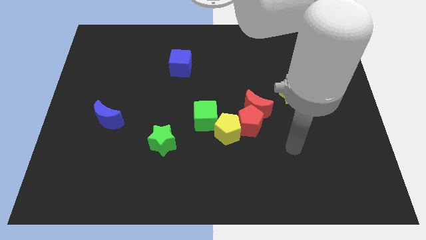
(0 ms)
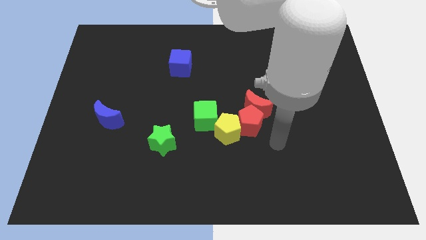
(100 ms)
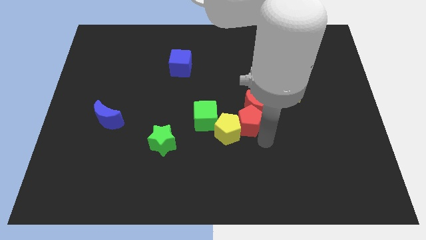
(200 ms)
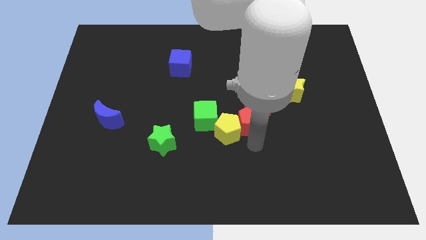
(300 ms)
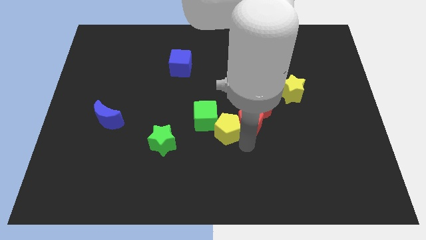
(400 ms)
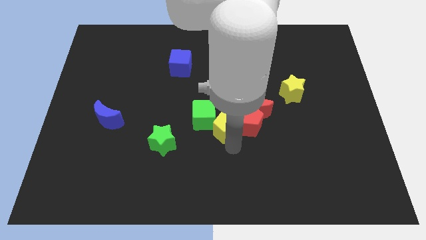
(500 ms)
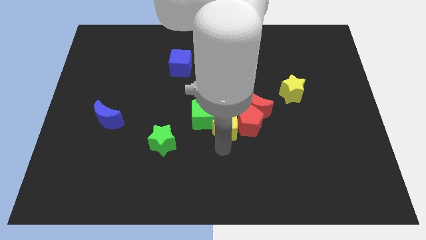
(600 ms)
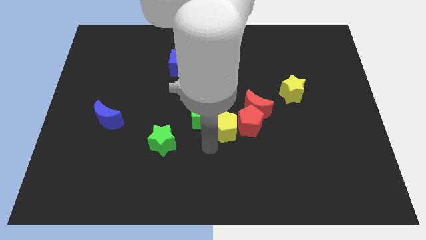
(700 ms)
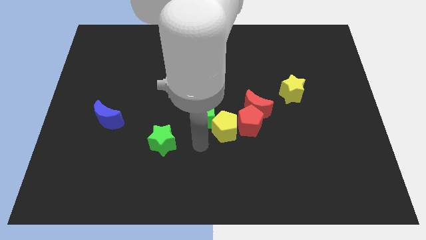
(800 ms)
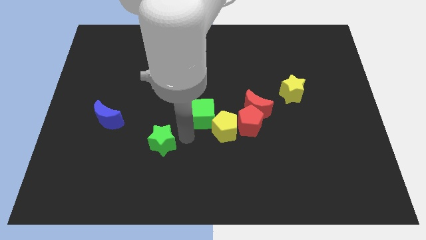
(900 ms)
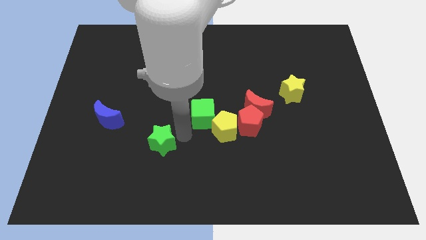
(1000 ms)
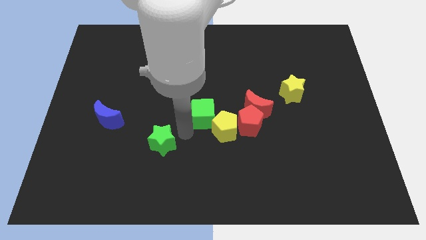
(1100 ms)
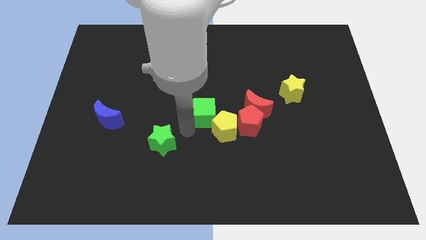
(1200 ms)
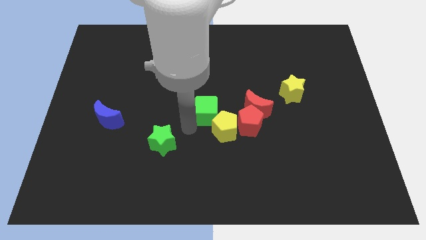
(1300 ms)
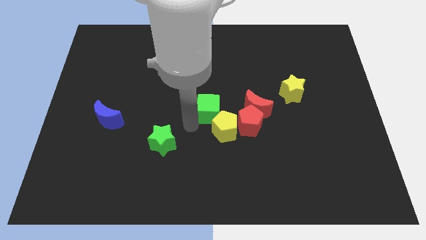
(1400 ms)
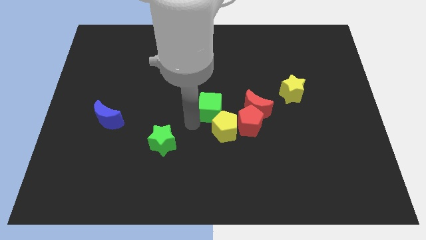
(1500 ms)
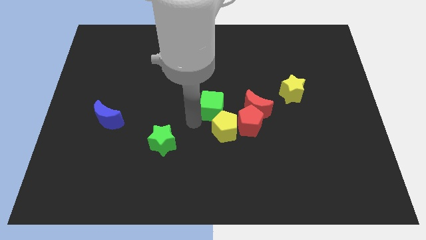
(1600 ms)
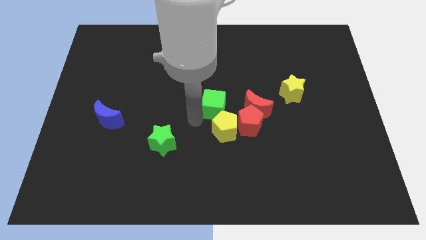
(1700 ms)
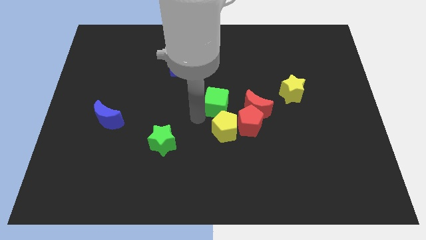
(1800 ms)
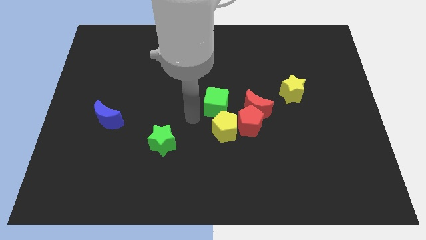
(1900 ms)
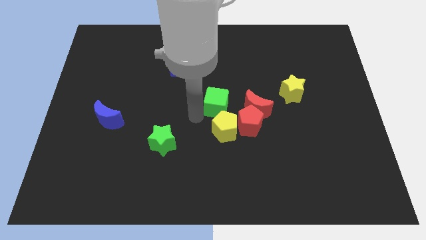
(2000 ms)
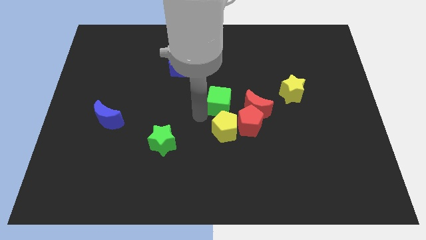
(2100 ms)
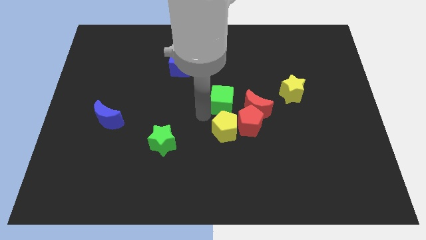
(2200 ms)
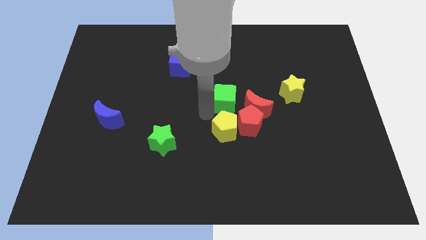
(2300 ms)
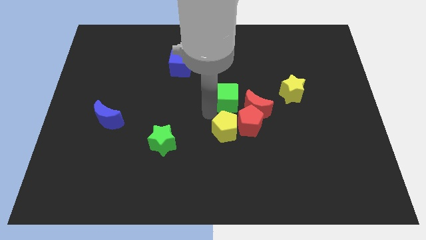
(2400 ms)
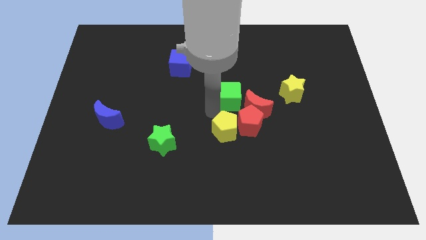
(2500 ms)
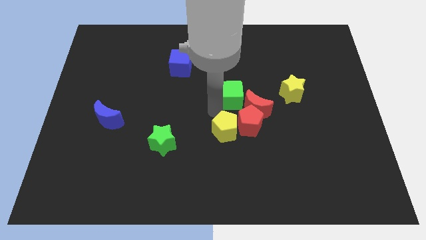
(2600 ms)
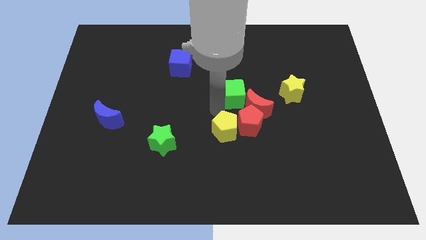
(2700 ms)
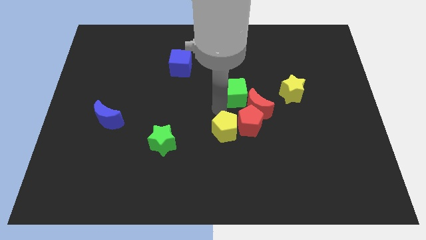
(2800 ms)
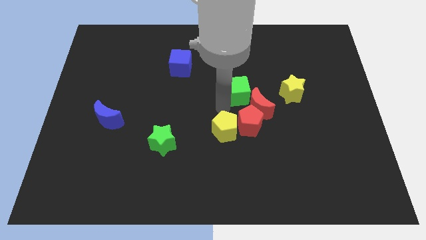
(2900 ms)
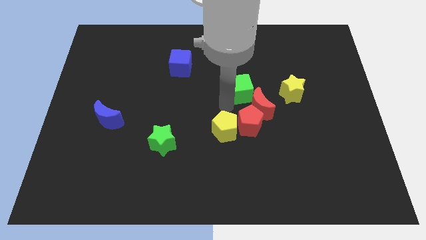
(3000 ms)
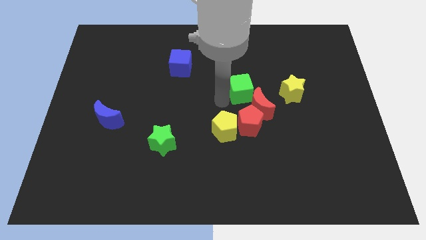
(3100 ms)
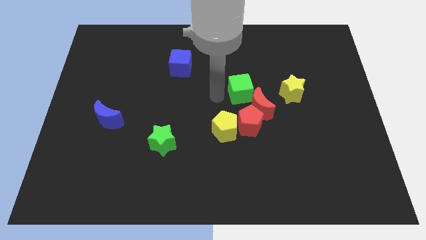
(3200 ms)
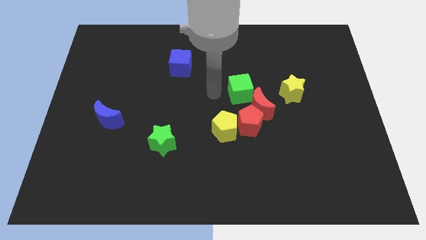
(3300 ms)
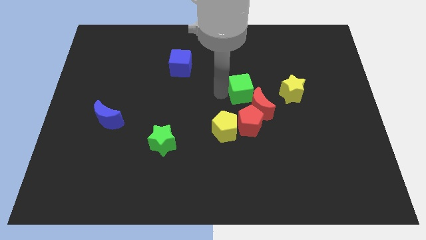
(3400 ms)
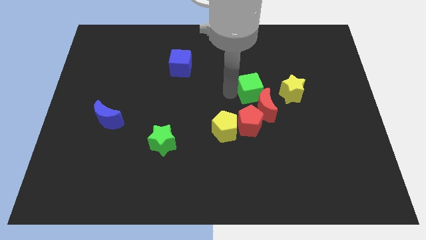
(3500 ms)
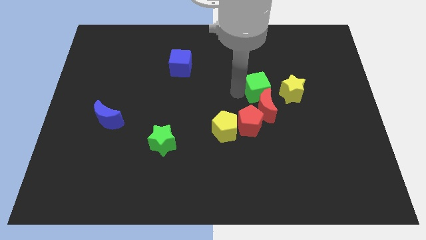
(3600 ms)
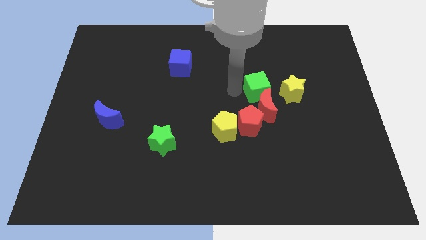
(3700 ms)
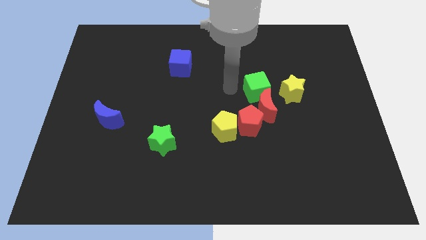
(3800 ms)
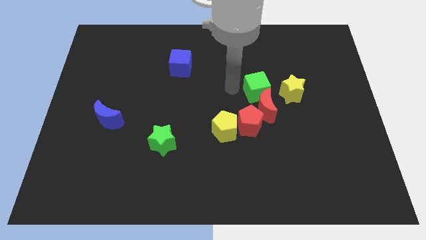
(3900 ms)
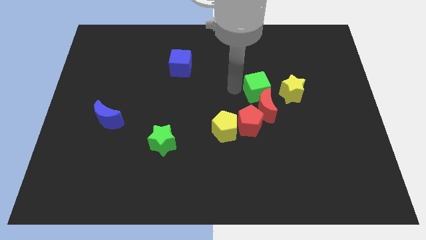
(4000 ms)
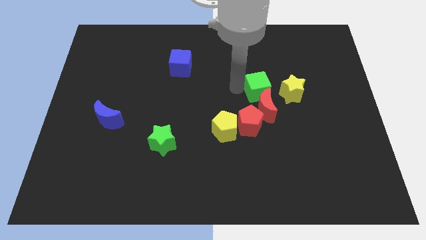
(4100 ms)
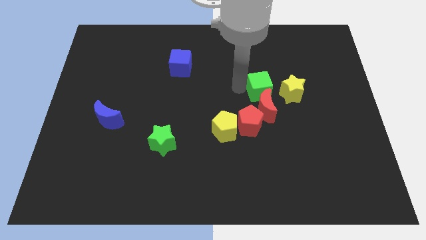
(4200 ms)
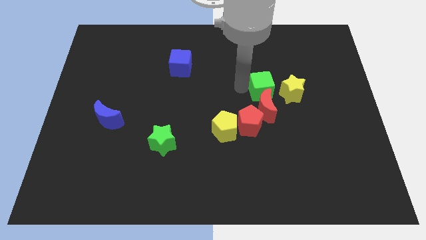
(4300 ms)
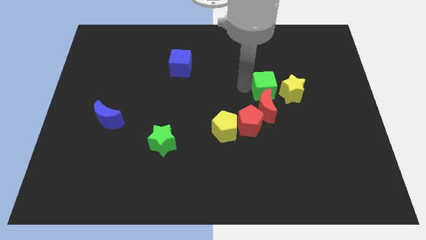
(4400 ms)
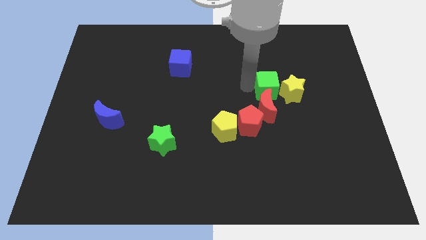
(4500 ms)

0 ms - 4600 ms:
put the green cube next to the yellow star

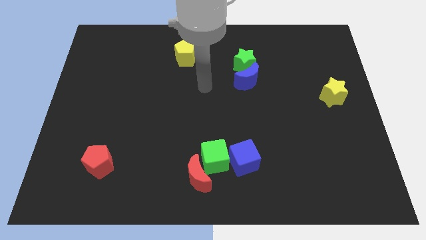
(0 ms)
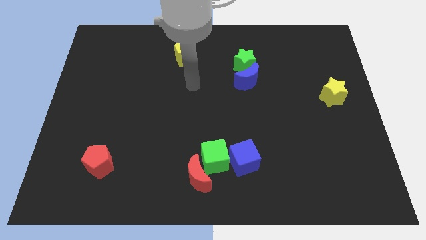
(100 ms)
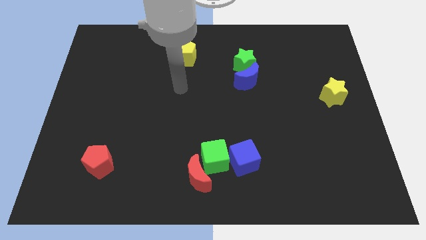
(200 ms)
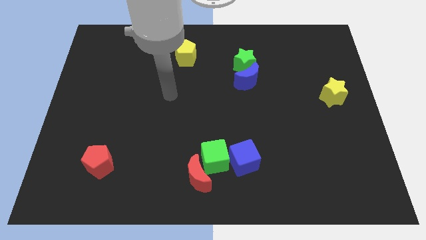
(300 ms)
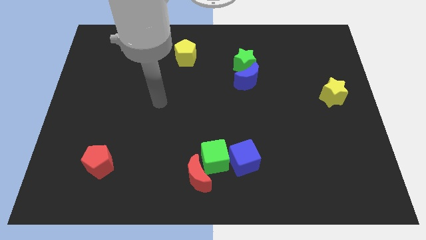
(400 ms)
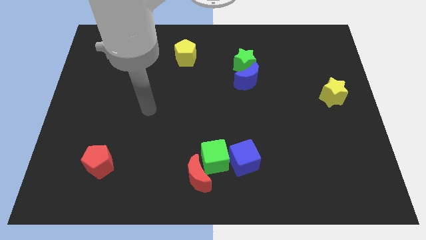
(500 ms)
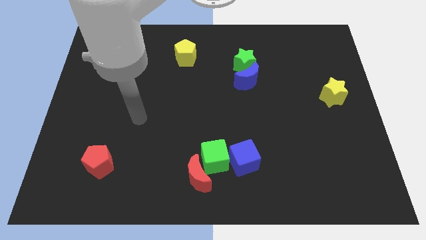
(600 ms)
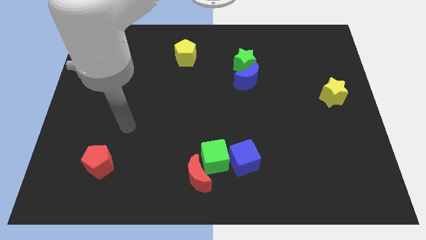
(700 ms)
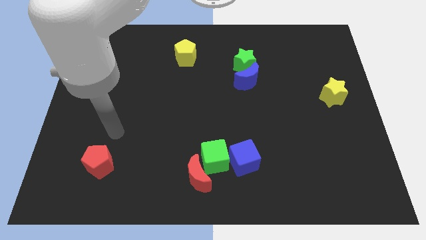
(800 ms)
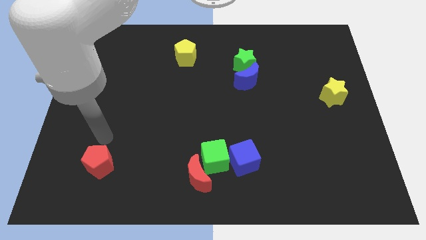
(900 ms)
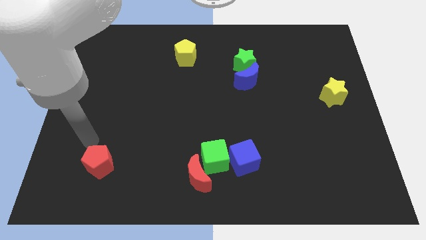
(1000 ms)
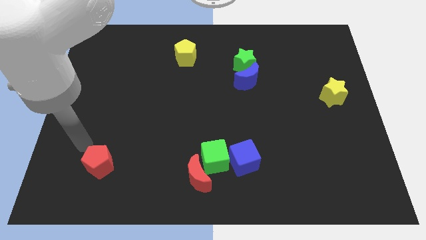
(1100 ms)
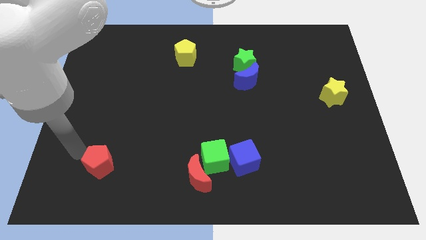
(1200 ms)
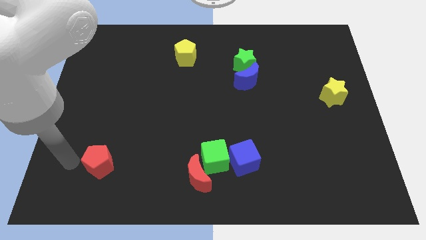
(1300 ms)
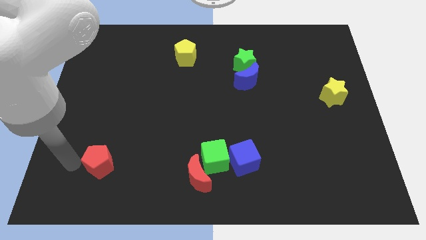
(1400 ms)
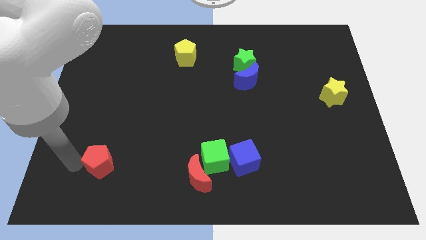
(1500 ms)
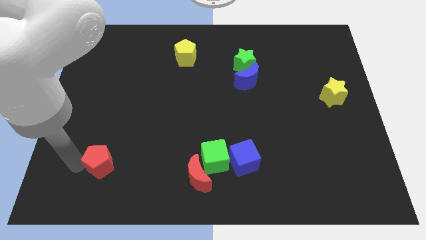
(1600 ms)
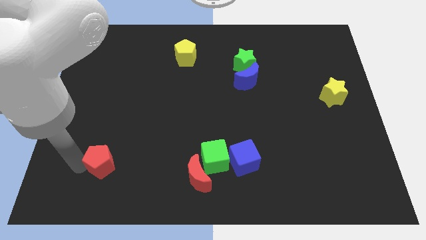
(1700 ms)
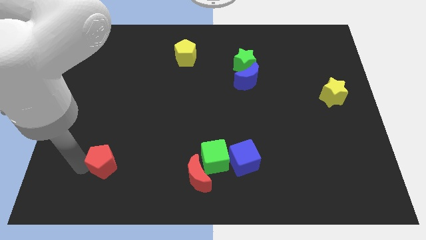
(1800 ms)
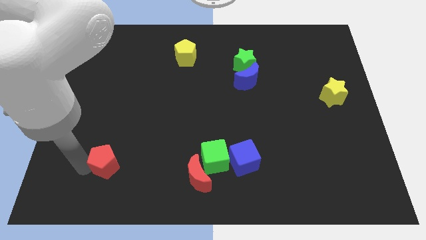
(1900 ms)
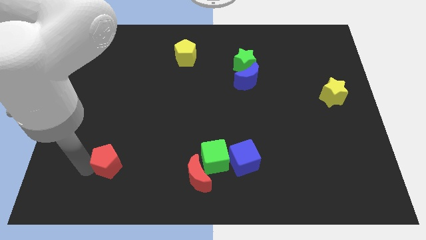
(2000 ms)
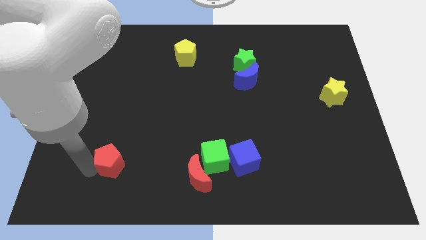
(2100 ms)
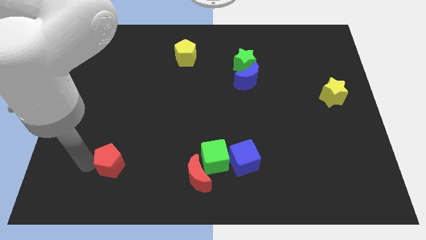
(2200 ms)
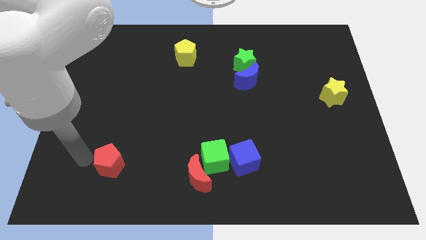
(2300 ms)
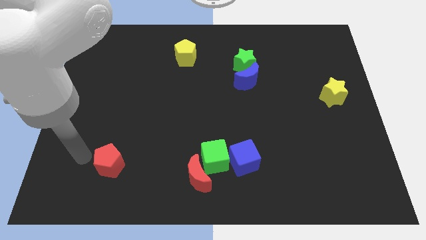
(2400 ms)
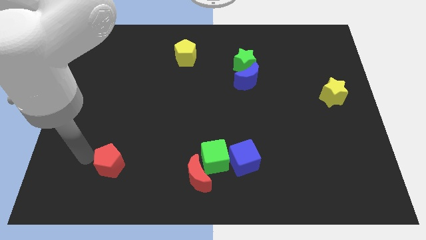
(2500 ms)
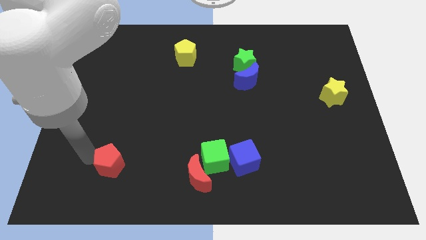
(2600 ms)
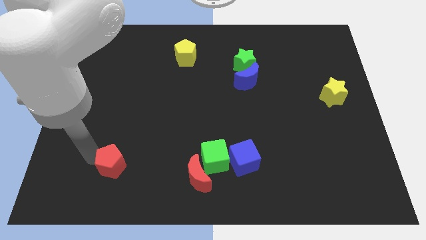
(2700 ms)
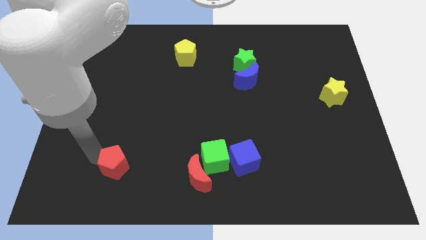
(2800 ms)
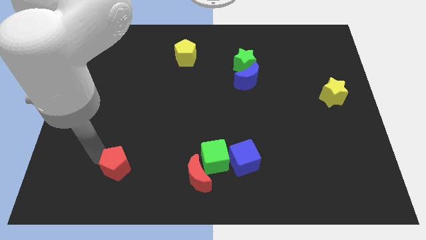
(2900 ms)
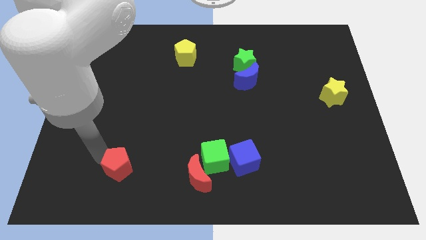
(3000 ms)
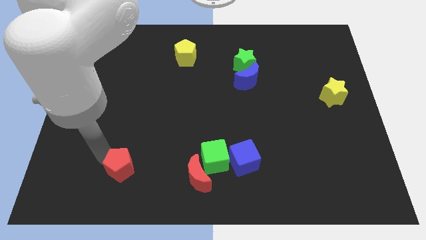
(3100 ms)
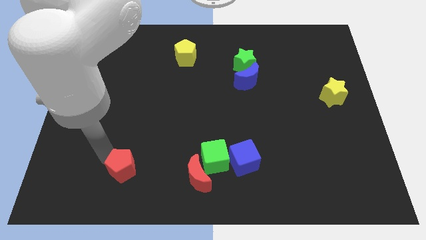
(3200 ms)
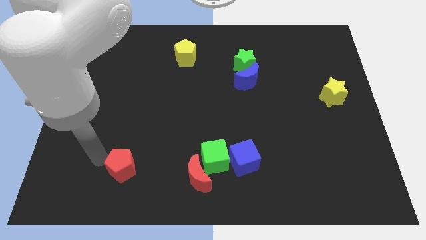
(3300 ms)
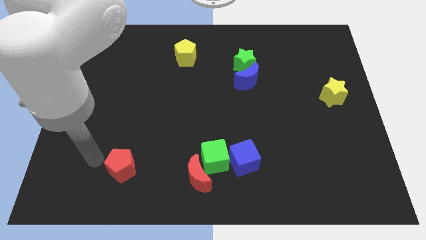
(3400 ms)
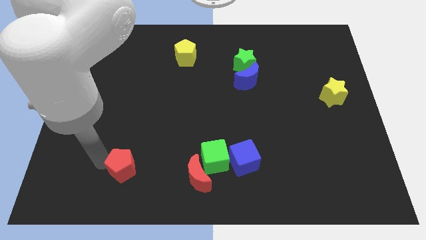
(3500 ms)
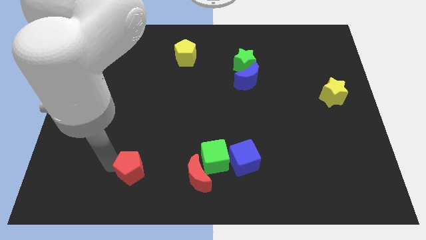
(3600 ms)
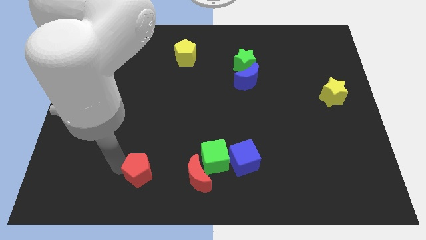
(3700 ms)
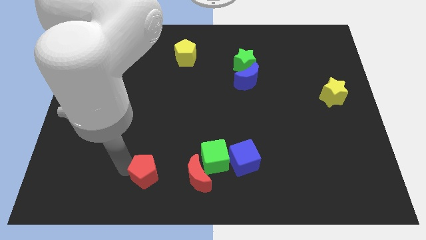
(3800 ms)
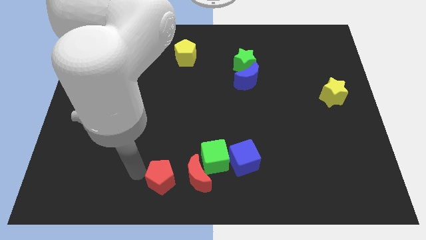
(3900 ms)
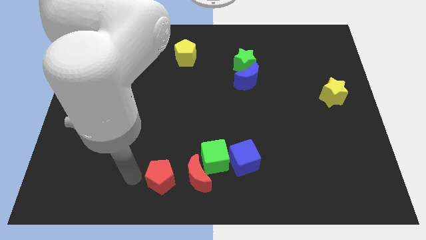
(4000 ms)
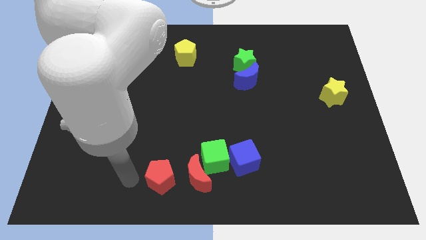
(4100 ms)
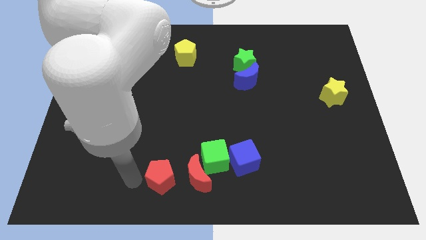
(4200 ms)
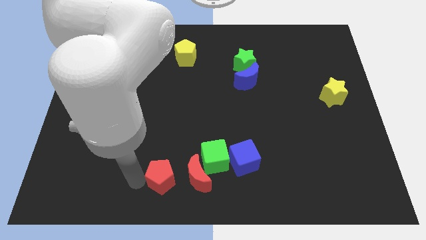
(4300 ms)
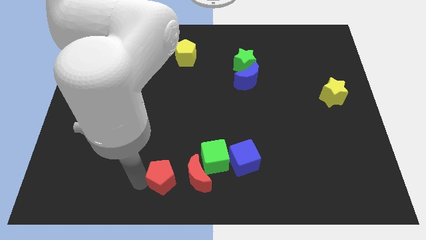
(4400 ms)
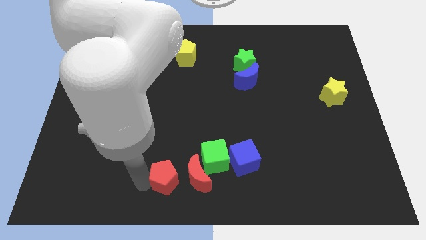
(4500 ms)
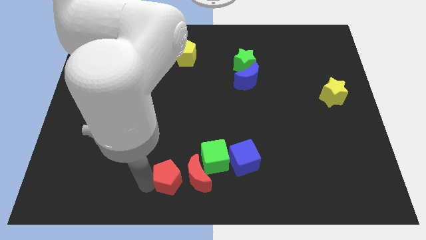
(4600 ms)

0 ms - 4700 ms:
slide the red pentagon towards the red moon
